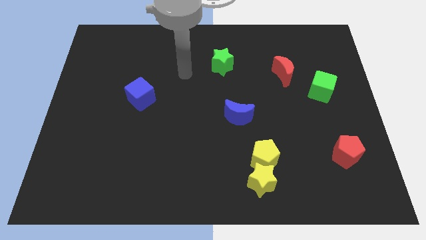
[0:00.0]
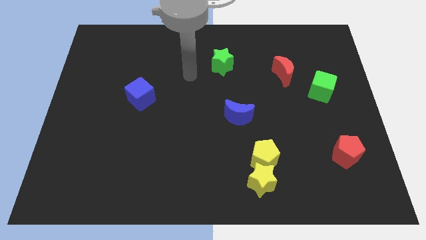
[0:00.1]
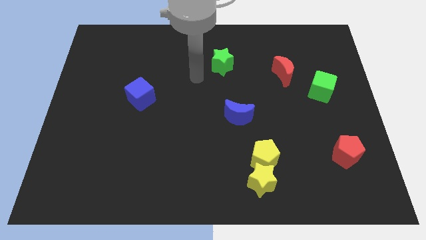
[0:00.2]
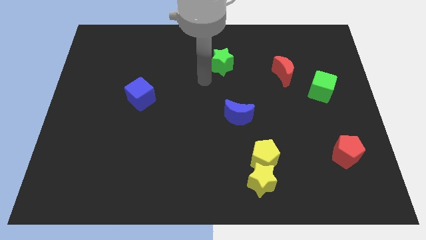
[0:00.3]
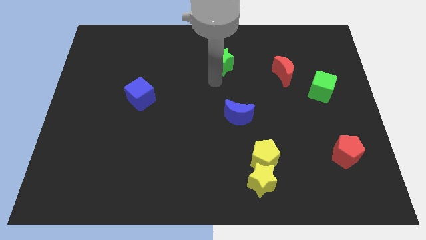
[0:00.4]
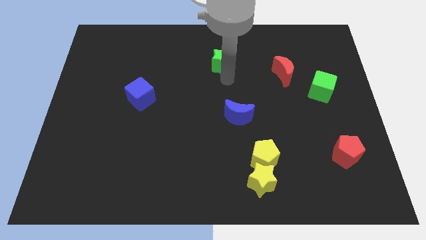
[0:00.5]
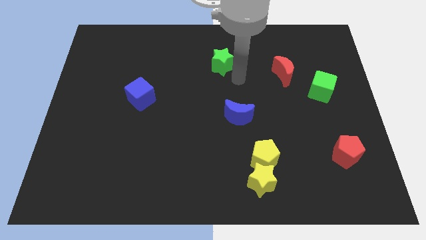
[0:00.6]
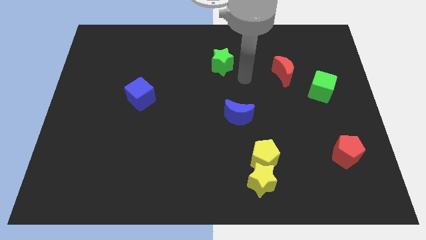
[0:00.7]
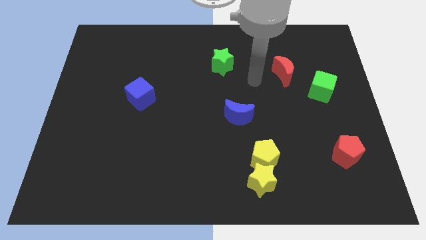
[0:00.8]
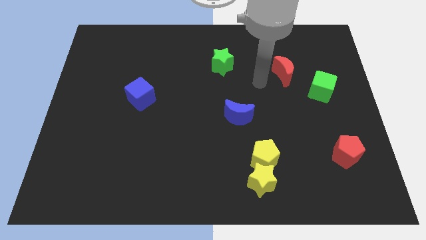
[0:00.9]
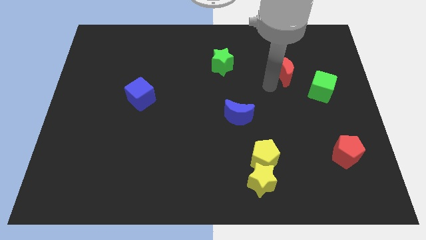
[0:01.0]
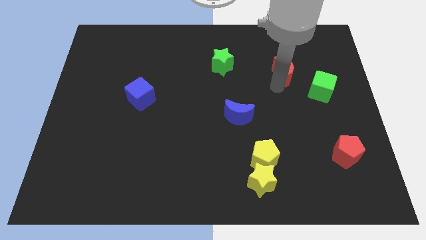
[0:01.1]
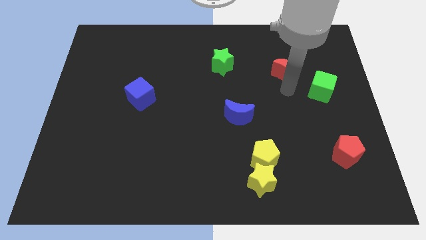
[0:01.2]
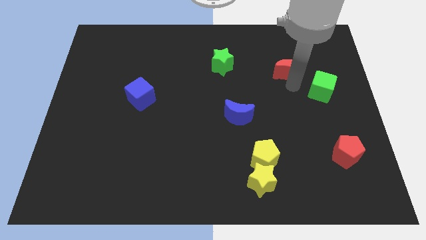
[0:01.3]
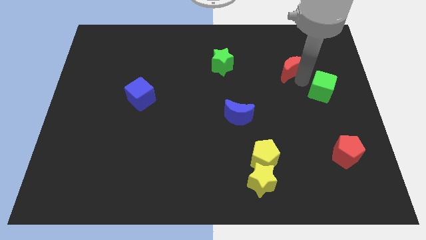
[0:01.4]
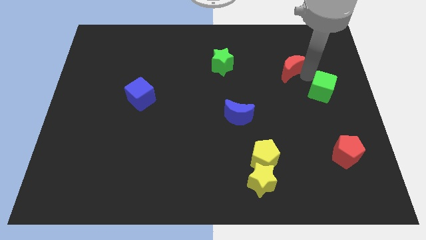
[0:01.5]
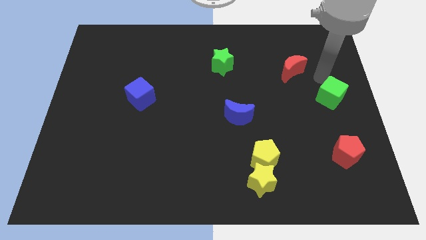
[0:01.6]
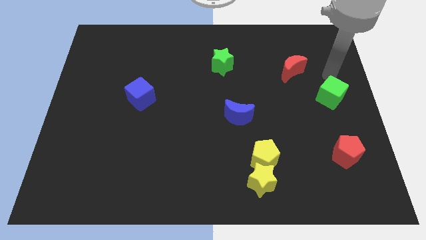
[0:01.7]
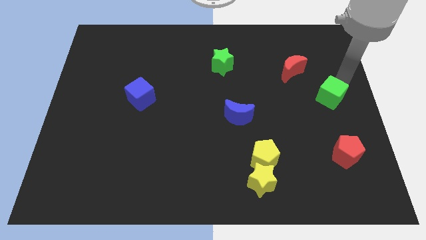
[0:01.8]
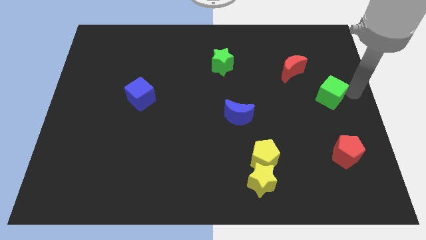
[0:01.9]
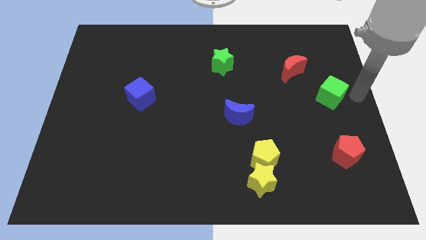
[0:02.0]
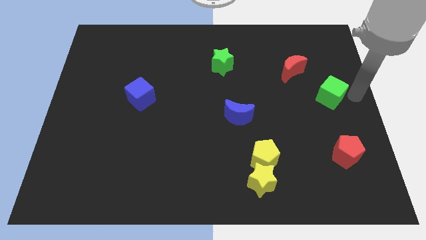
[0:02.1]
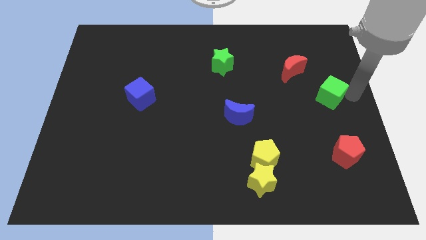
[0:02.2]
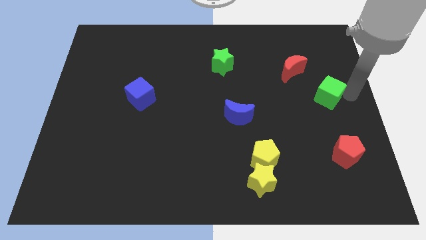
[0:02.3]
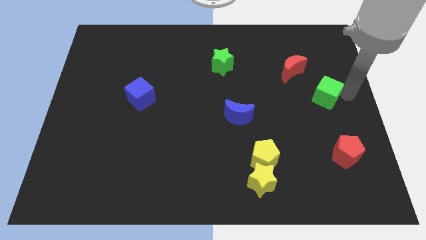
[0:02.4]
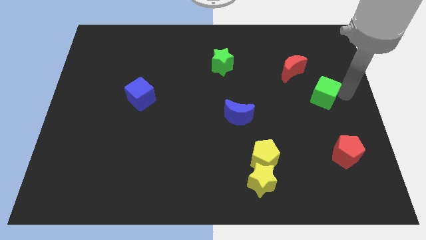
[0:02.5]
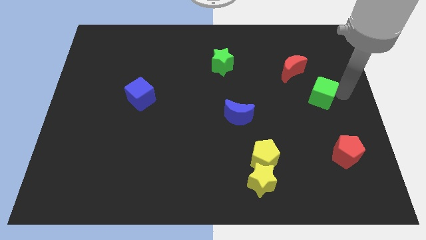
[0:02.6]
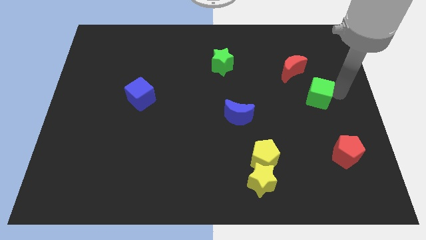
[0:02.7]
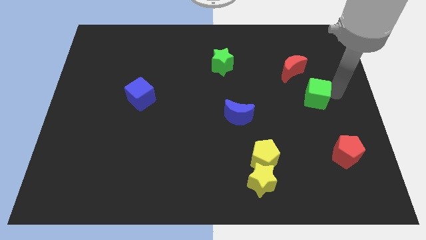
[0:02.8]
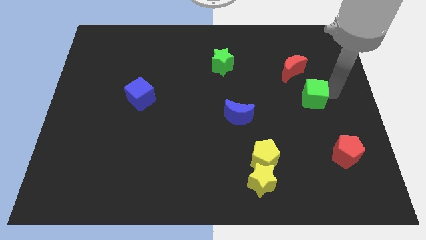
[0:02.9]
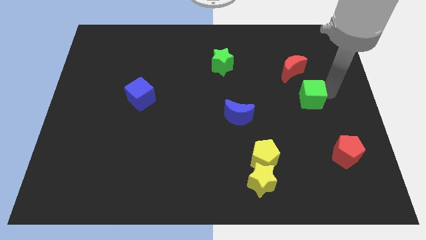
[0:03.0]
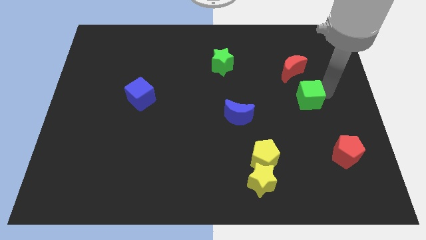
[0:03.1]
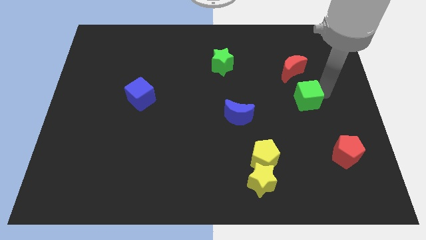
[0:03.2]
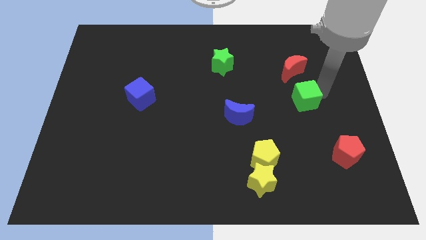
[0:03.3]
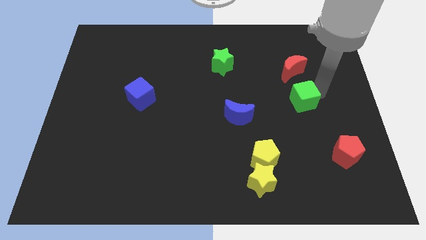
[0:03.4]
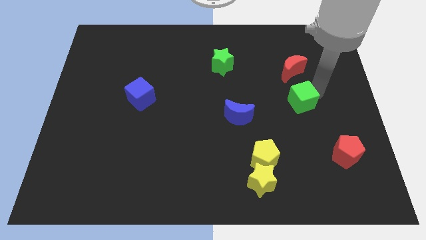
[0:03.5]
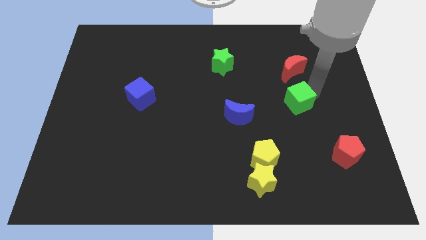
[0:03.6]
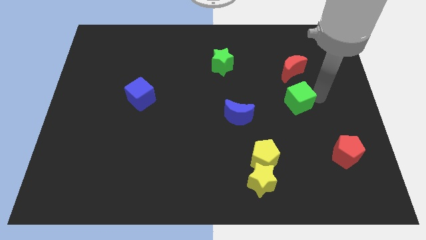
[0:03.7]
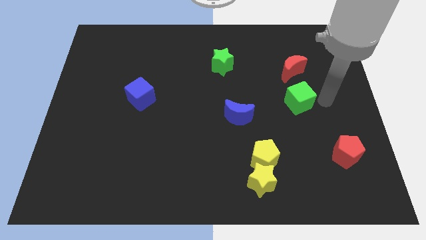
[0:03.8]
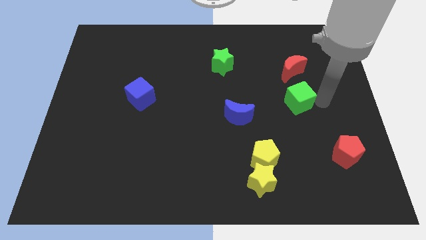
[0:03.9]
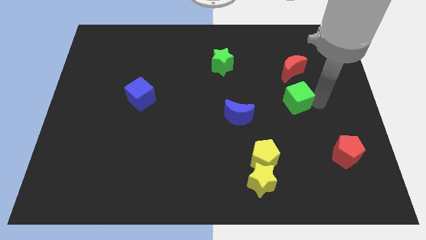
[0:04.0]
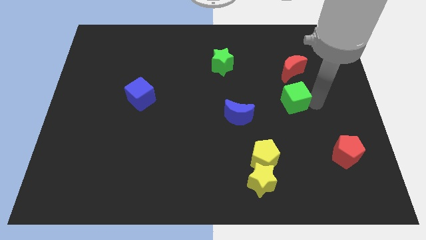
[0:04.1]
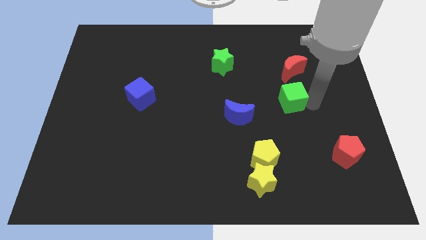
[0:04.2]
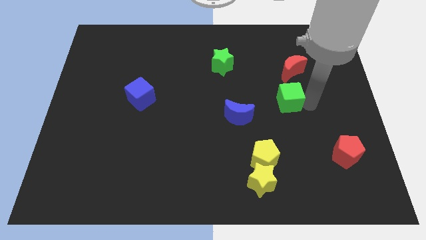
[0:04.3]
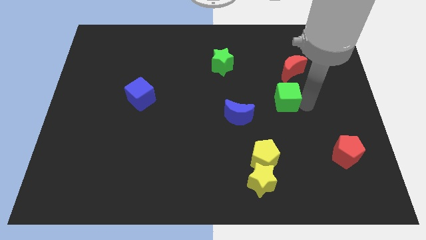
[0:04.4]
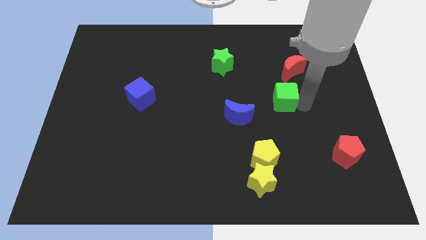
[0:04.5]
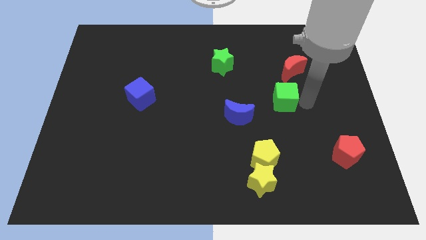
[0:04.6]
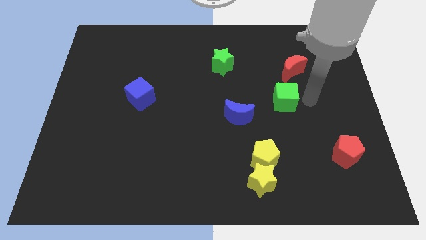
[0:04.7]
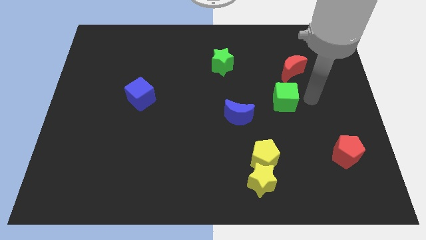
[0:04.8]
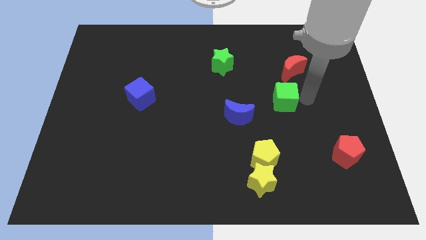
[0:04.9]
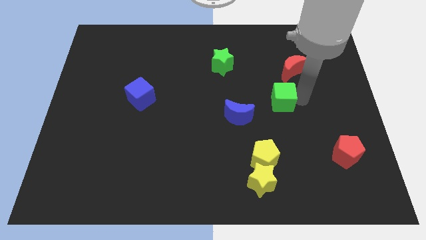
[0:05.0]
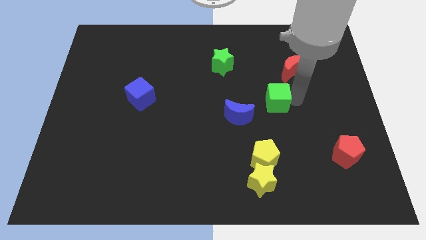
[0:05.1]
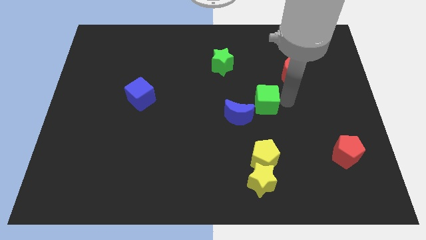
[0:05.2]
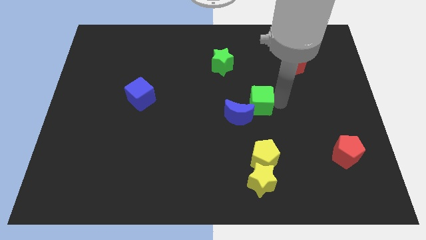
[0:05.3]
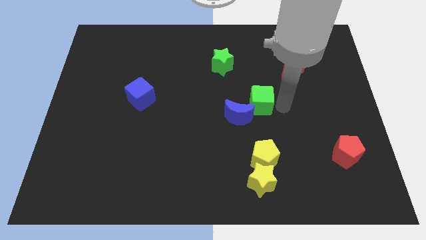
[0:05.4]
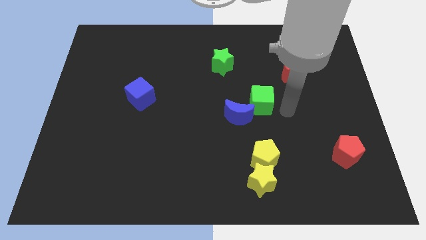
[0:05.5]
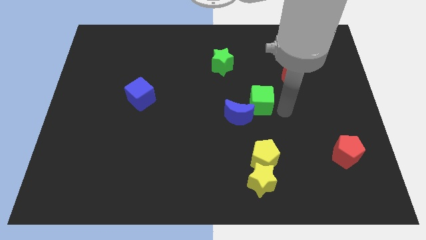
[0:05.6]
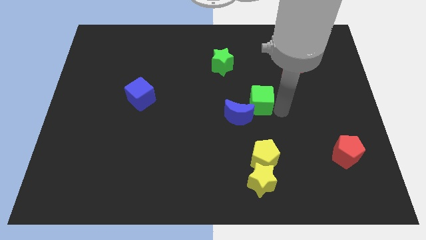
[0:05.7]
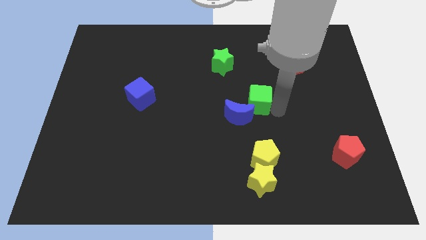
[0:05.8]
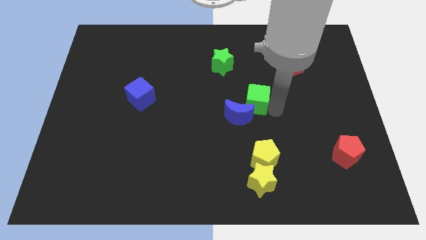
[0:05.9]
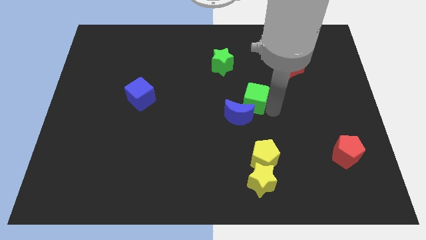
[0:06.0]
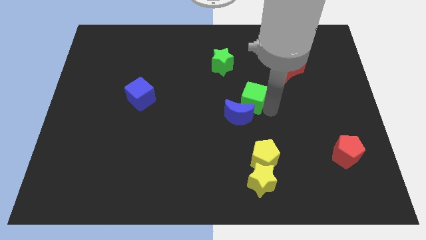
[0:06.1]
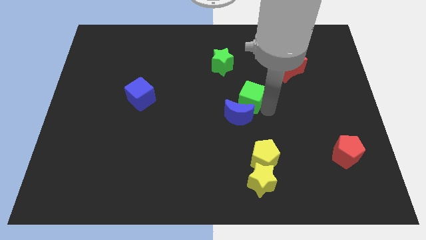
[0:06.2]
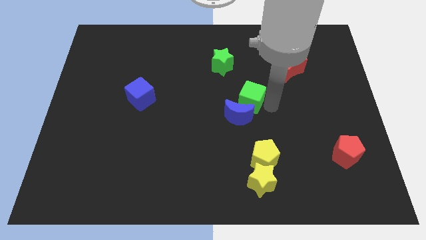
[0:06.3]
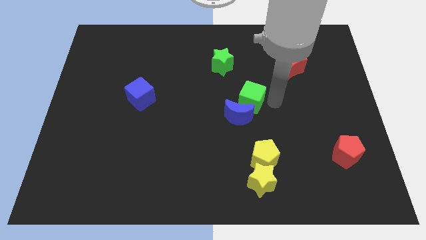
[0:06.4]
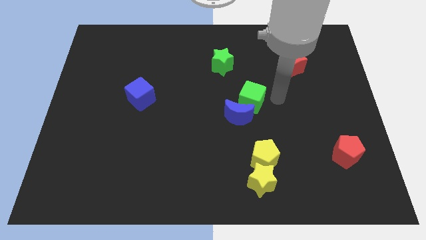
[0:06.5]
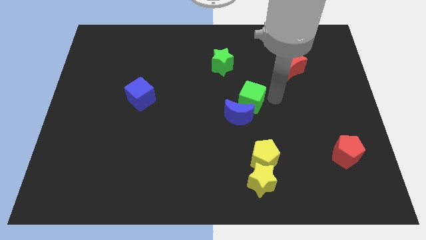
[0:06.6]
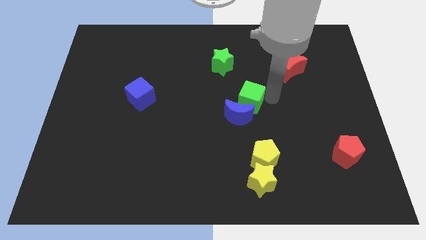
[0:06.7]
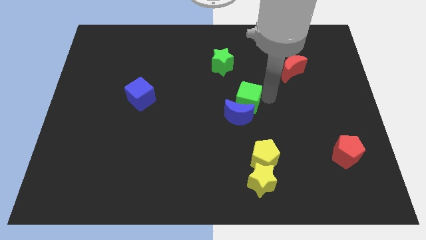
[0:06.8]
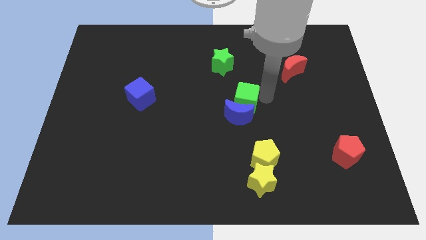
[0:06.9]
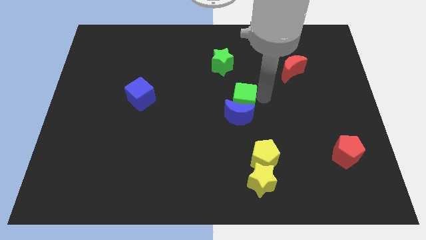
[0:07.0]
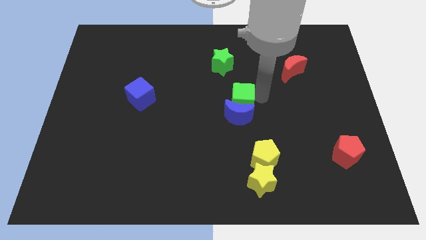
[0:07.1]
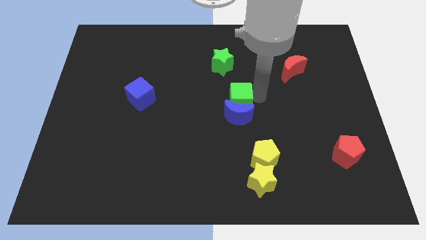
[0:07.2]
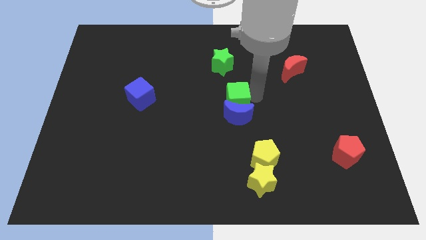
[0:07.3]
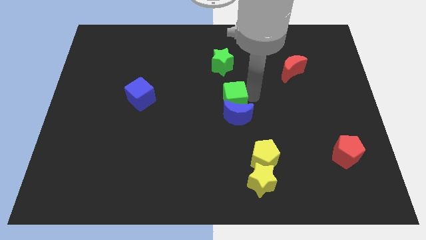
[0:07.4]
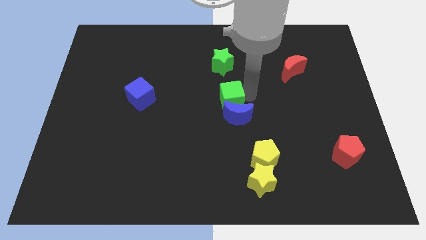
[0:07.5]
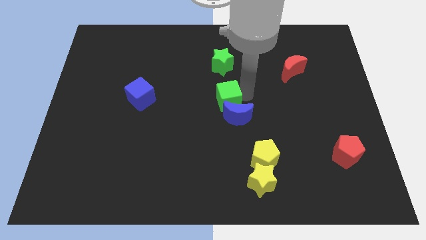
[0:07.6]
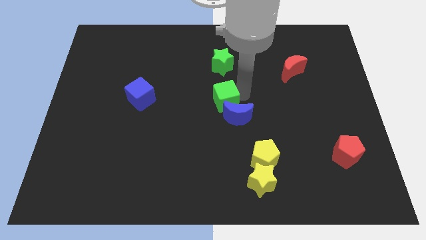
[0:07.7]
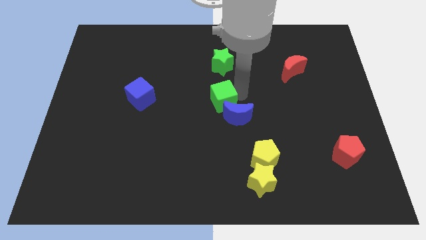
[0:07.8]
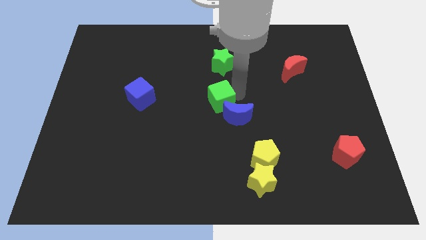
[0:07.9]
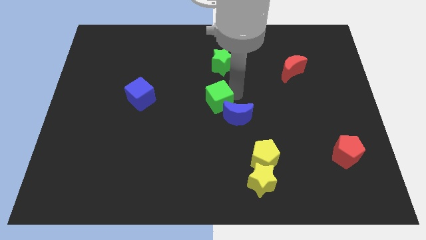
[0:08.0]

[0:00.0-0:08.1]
put the green cube to the left of the blue moon
